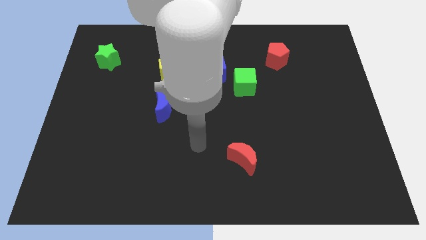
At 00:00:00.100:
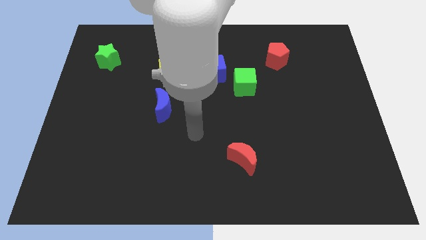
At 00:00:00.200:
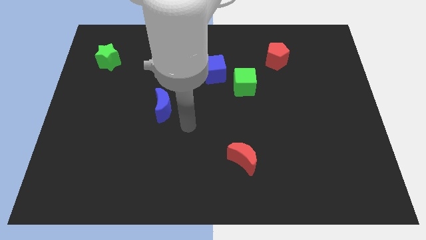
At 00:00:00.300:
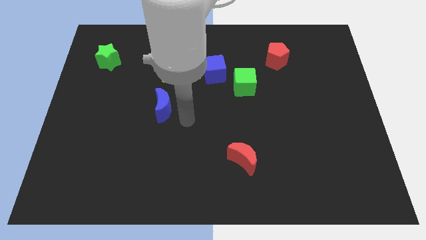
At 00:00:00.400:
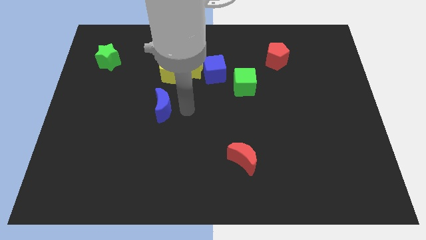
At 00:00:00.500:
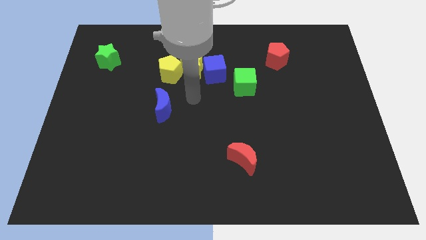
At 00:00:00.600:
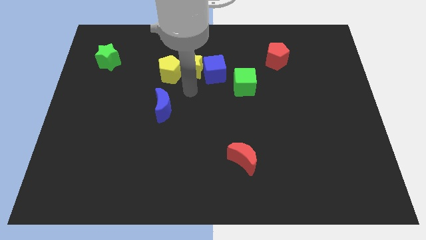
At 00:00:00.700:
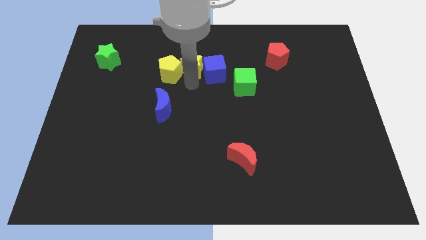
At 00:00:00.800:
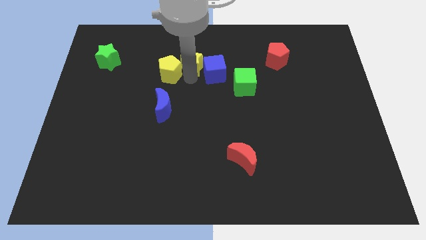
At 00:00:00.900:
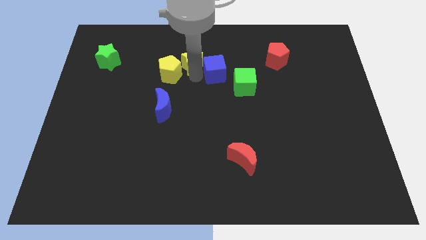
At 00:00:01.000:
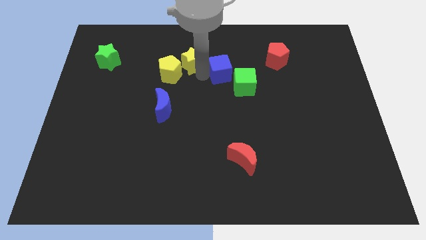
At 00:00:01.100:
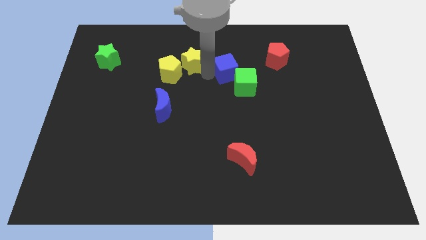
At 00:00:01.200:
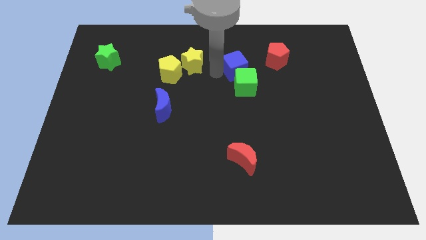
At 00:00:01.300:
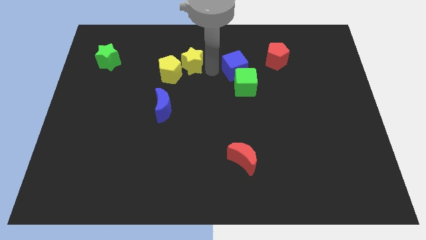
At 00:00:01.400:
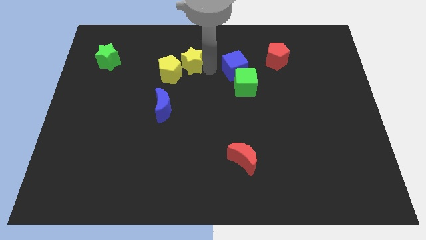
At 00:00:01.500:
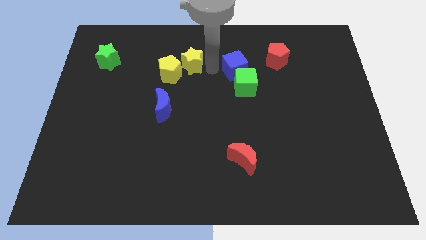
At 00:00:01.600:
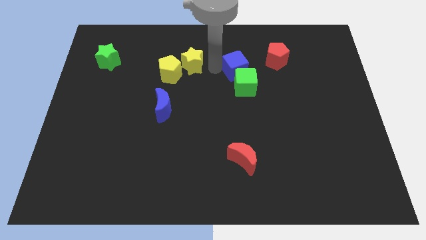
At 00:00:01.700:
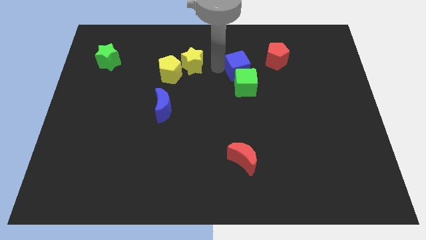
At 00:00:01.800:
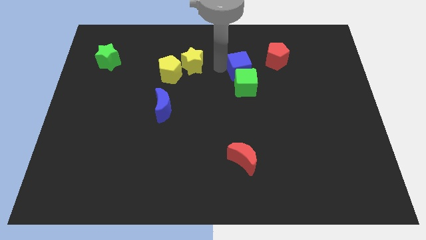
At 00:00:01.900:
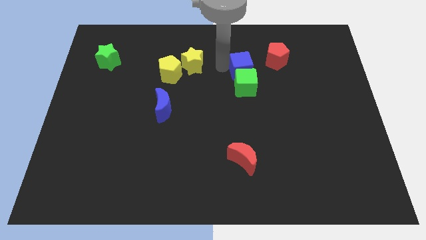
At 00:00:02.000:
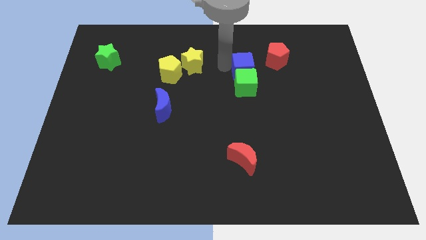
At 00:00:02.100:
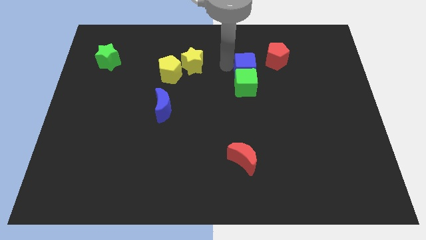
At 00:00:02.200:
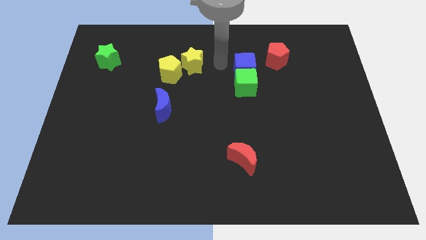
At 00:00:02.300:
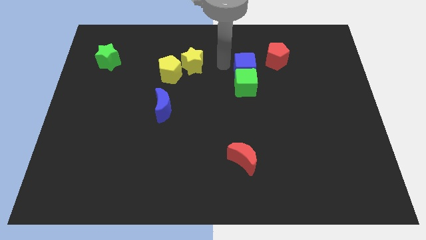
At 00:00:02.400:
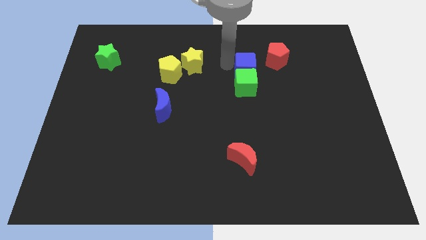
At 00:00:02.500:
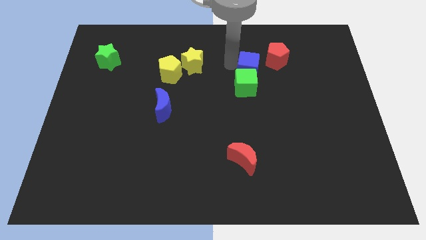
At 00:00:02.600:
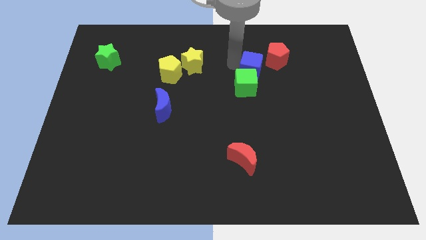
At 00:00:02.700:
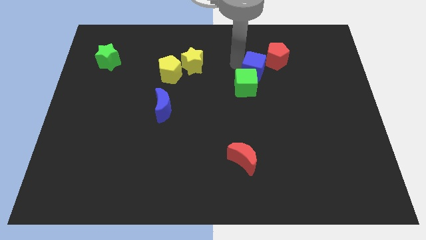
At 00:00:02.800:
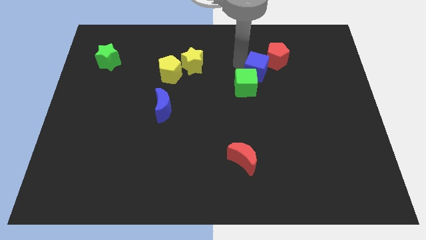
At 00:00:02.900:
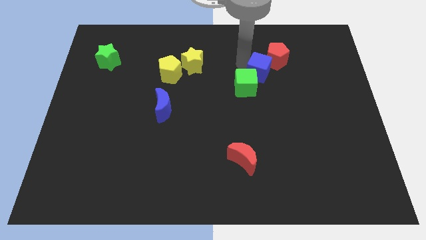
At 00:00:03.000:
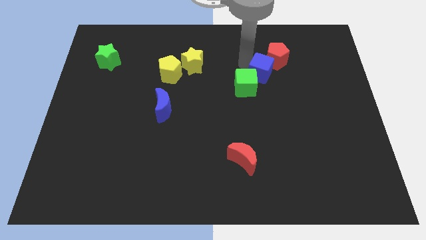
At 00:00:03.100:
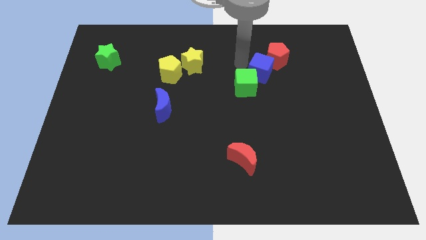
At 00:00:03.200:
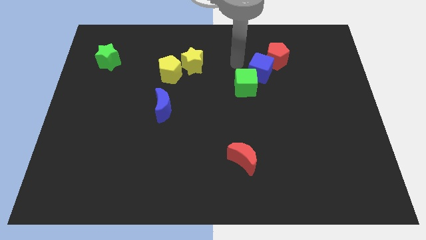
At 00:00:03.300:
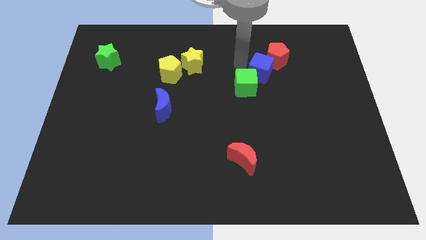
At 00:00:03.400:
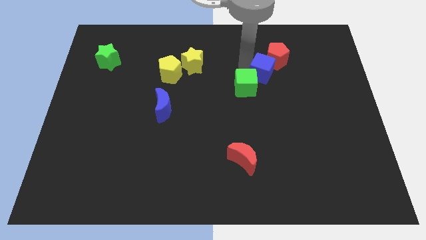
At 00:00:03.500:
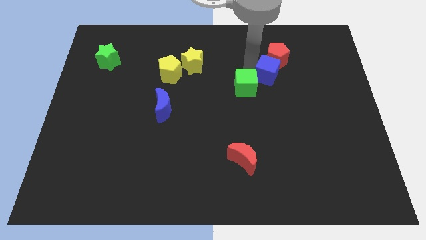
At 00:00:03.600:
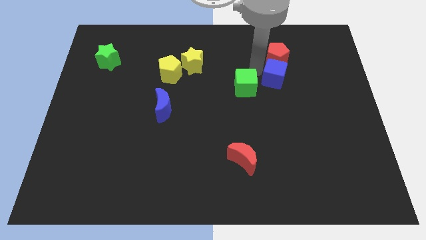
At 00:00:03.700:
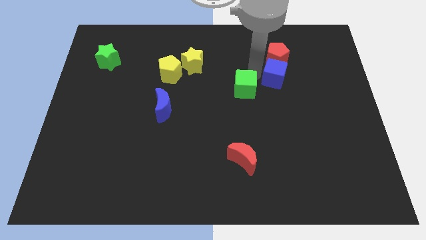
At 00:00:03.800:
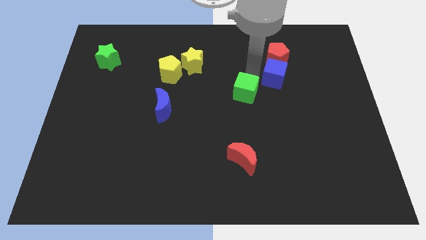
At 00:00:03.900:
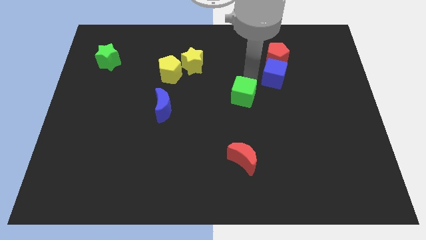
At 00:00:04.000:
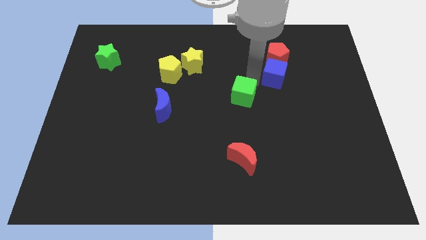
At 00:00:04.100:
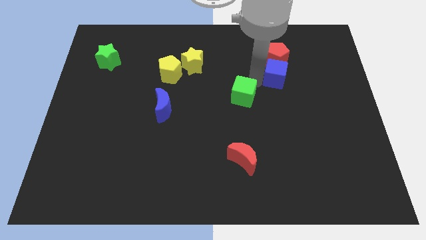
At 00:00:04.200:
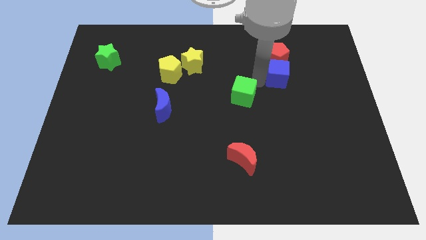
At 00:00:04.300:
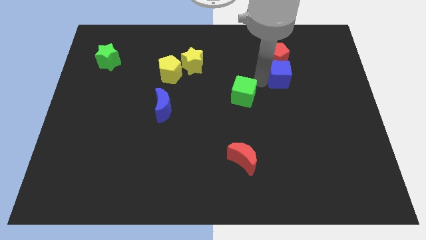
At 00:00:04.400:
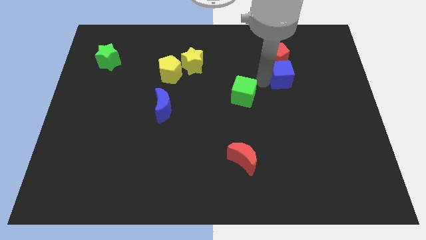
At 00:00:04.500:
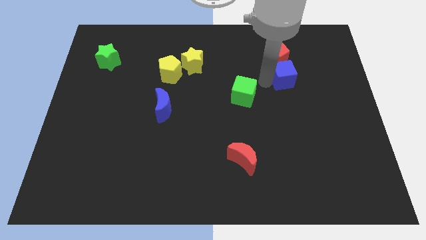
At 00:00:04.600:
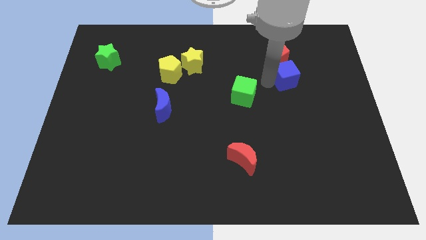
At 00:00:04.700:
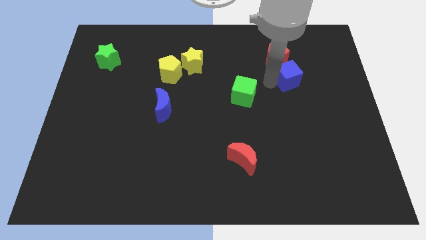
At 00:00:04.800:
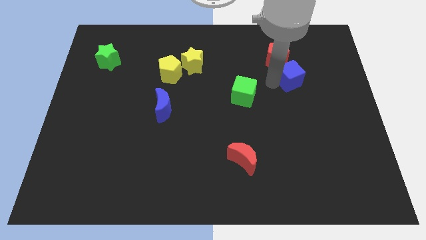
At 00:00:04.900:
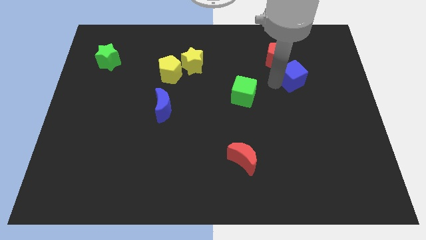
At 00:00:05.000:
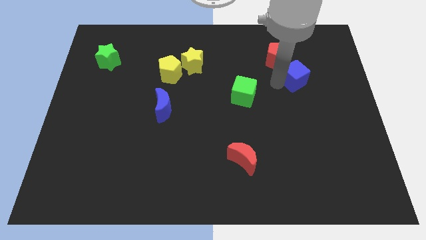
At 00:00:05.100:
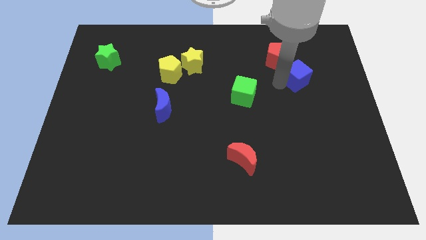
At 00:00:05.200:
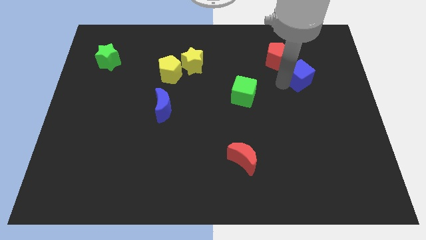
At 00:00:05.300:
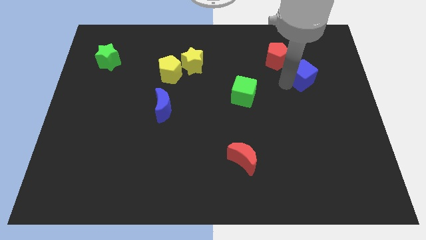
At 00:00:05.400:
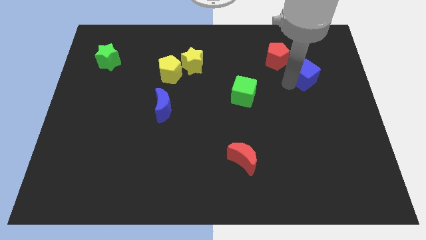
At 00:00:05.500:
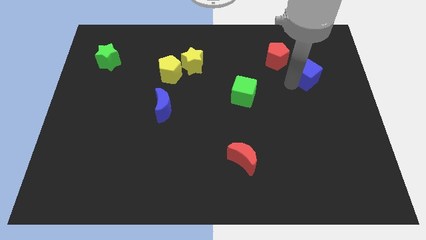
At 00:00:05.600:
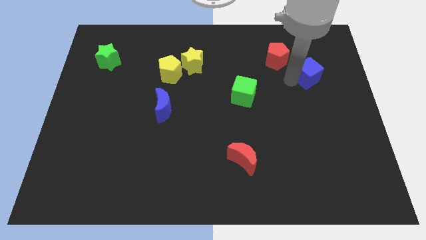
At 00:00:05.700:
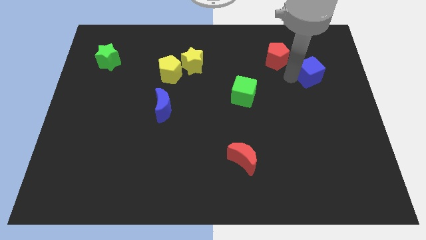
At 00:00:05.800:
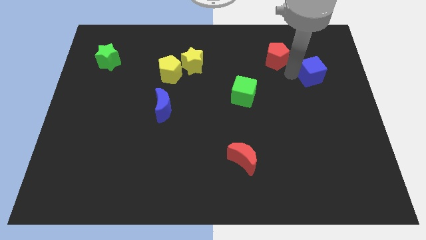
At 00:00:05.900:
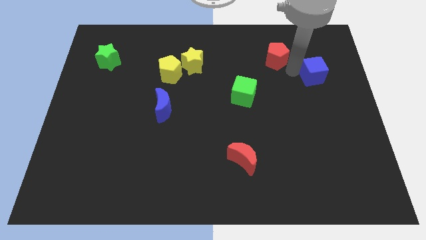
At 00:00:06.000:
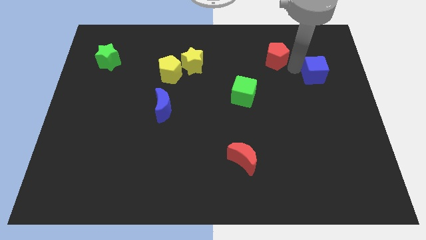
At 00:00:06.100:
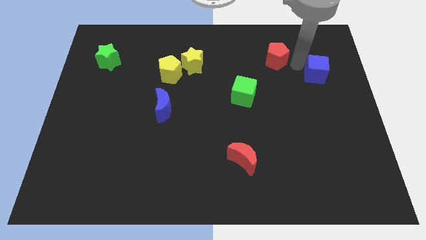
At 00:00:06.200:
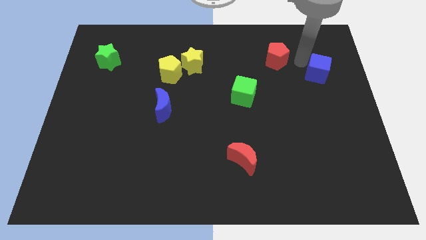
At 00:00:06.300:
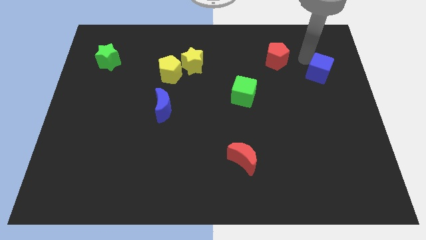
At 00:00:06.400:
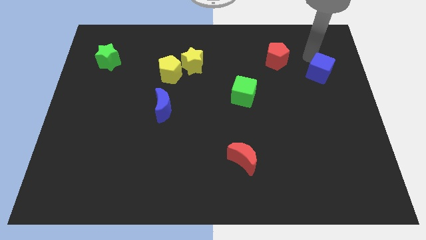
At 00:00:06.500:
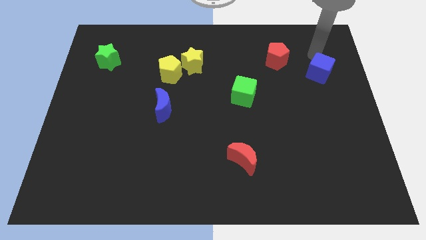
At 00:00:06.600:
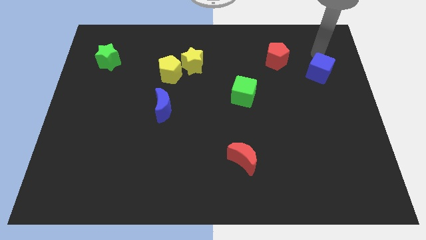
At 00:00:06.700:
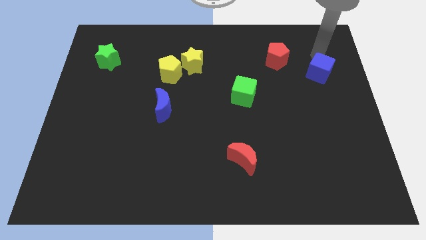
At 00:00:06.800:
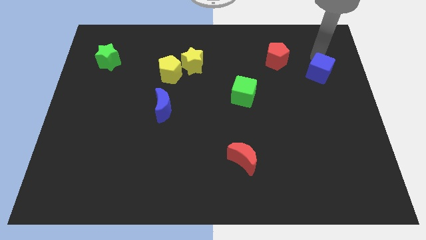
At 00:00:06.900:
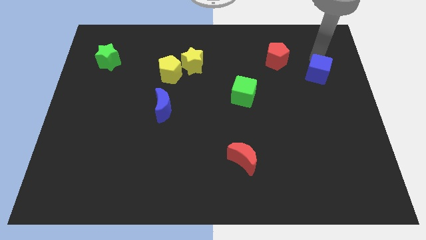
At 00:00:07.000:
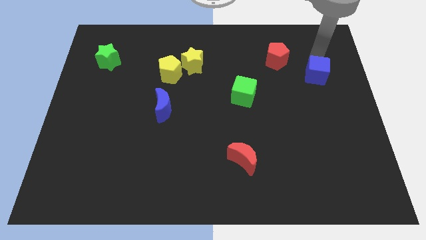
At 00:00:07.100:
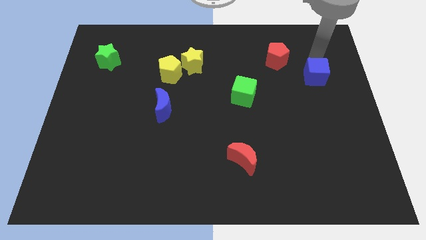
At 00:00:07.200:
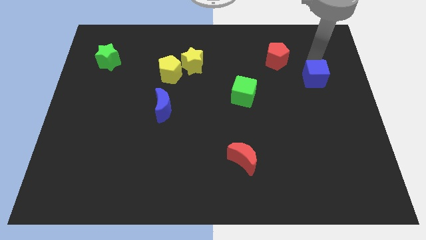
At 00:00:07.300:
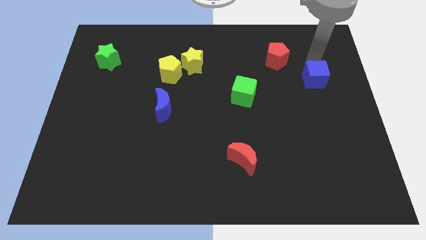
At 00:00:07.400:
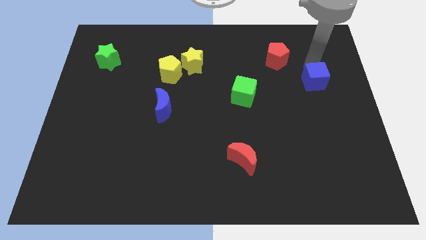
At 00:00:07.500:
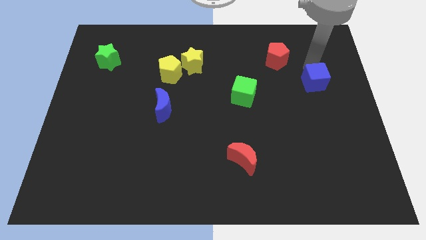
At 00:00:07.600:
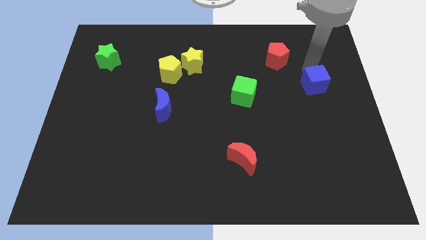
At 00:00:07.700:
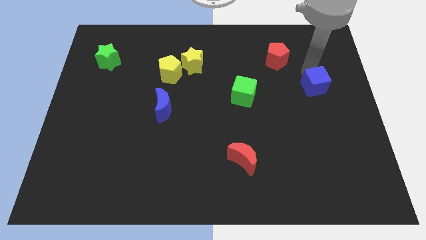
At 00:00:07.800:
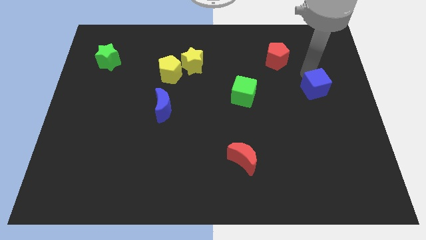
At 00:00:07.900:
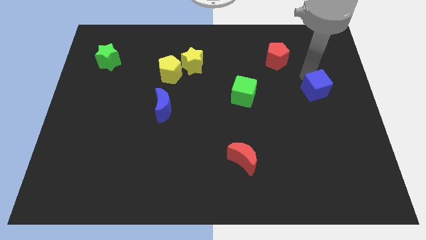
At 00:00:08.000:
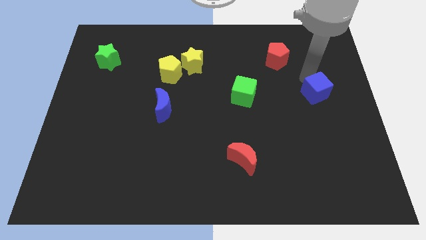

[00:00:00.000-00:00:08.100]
move the blue cube to the right side of the board
